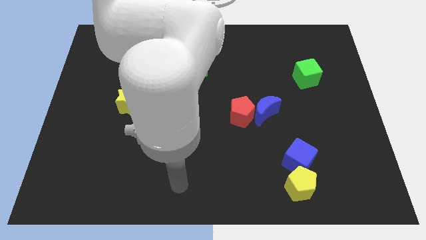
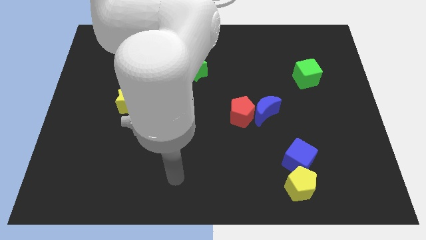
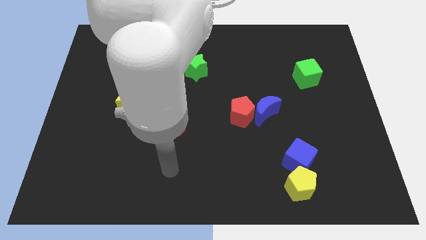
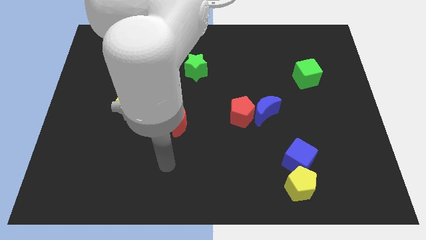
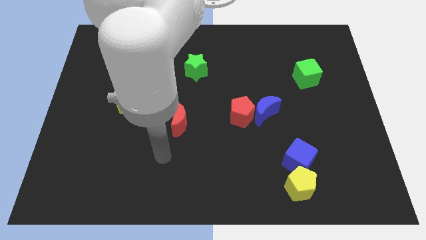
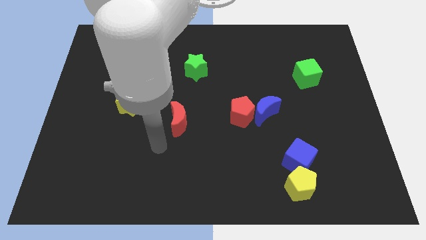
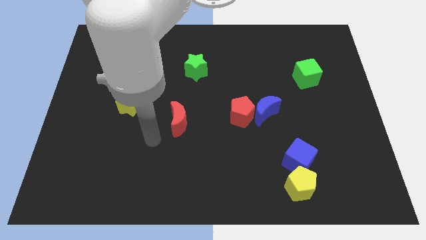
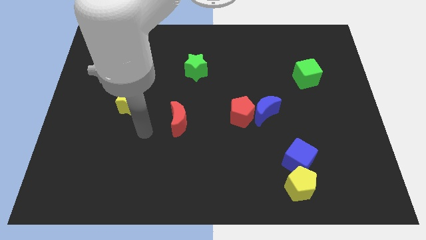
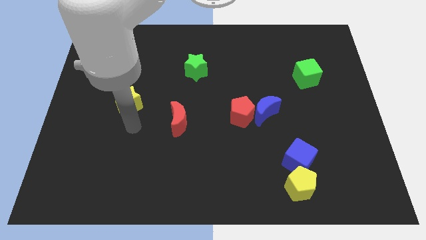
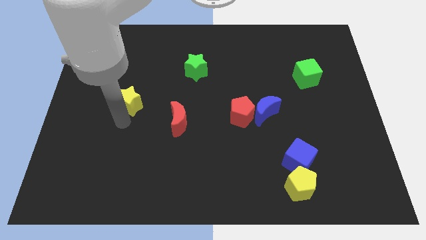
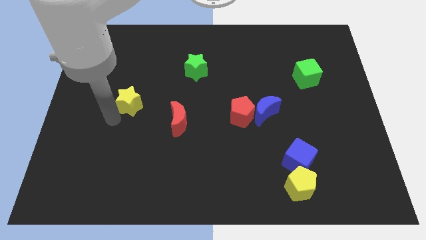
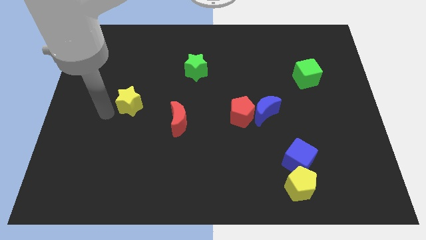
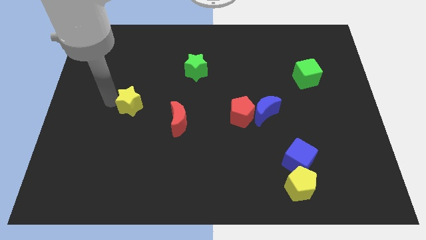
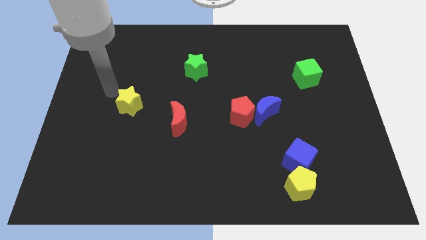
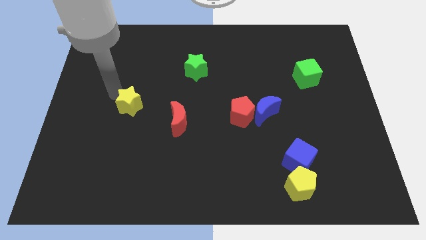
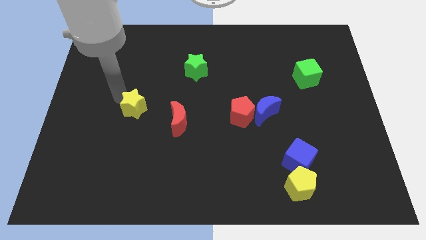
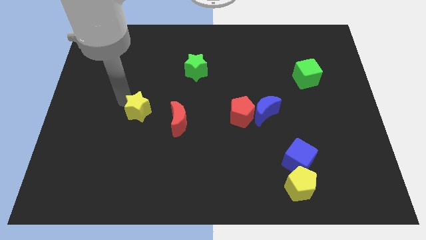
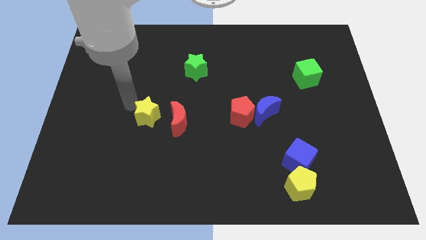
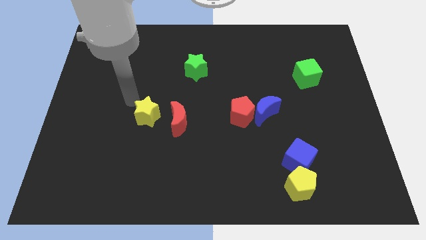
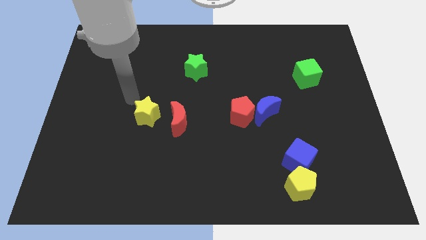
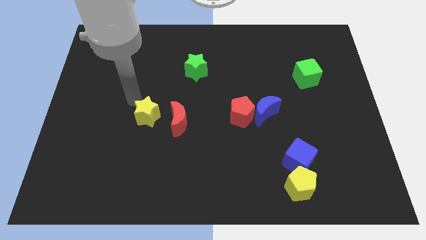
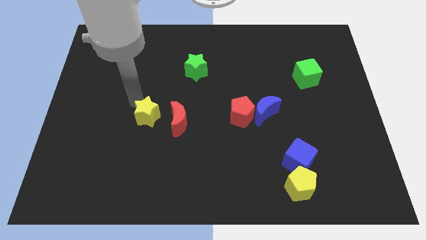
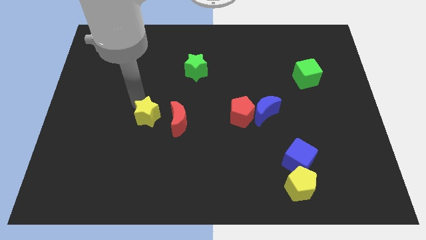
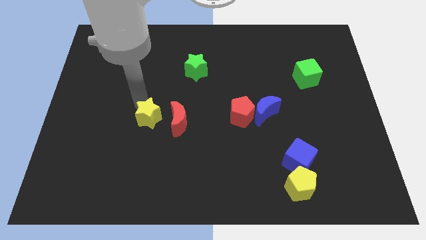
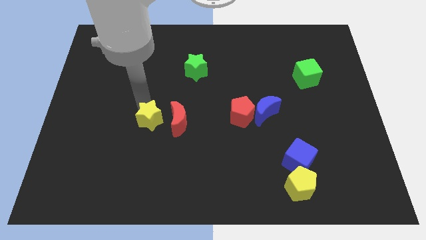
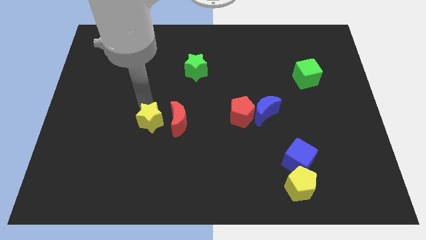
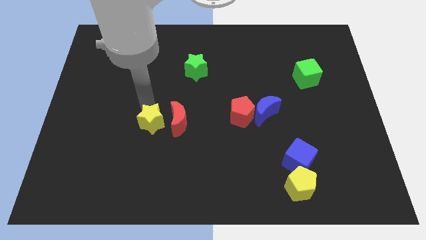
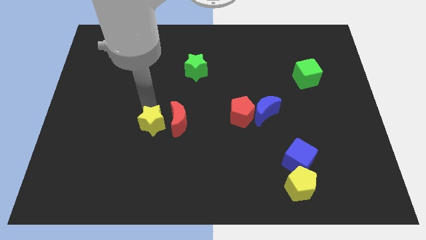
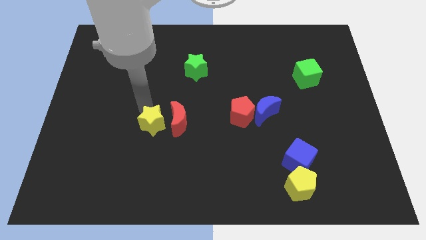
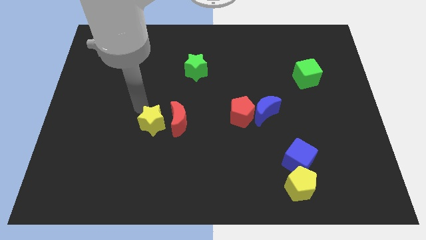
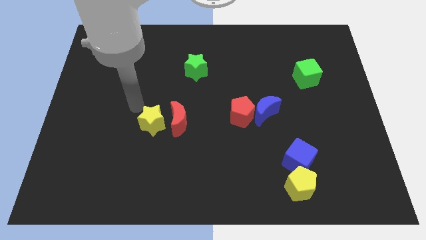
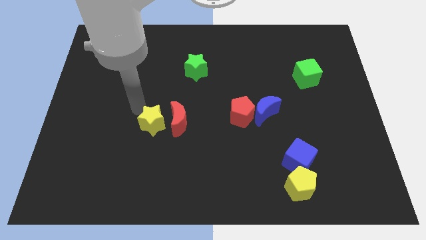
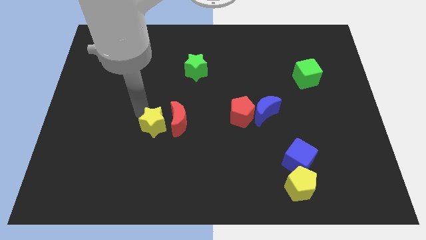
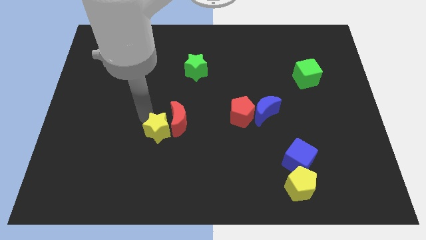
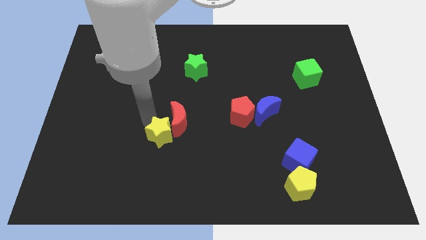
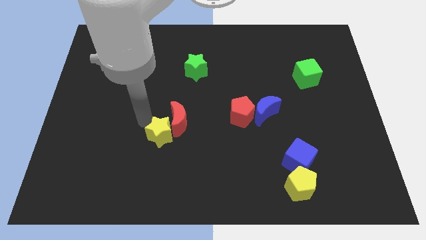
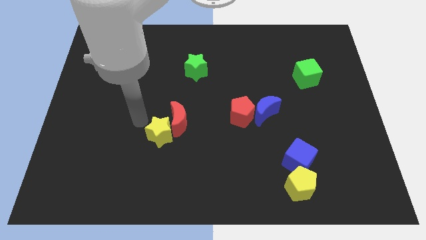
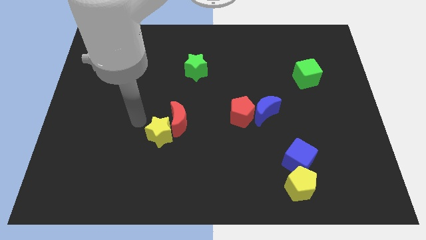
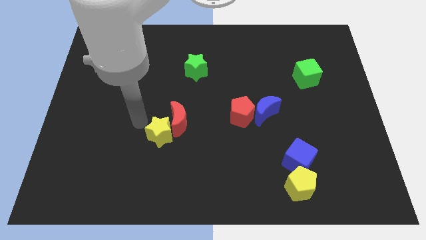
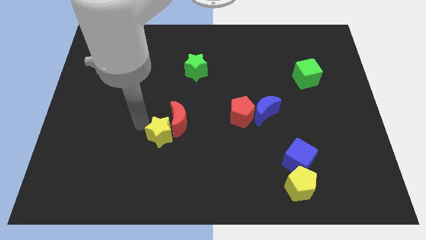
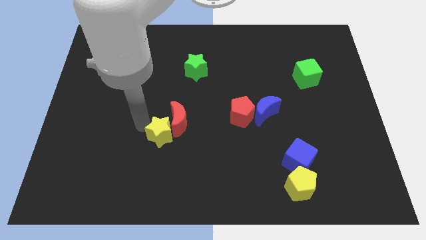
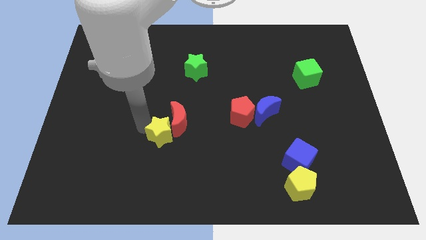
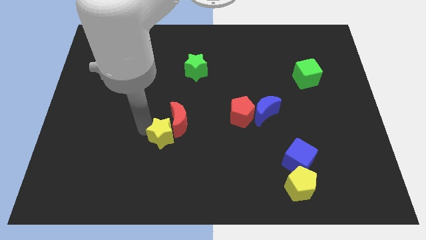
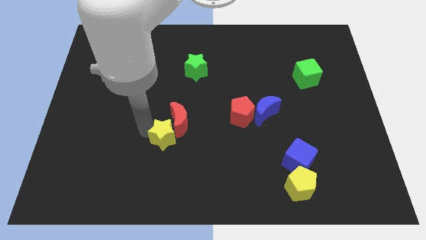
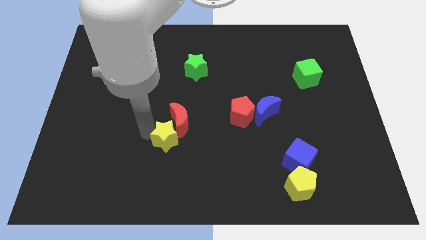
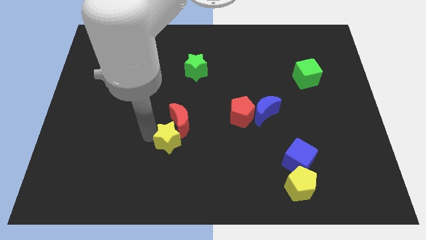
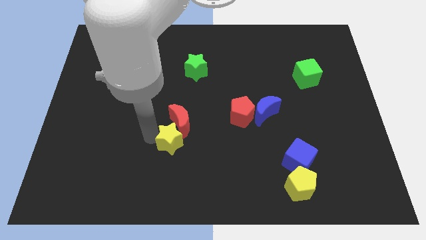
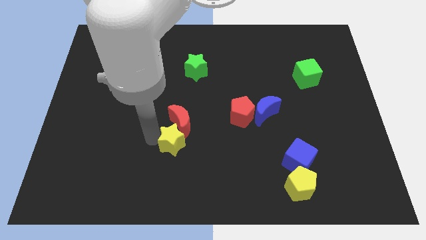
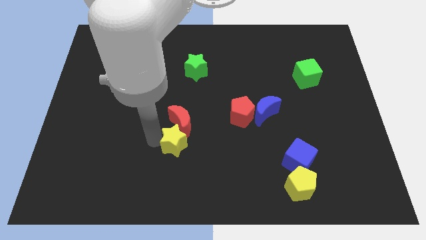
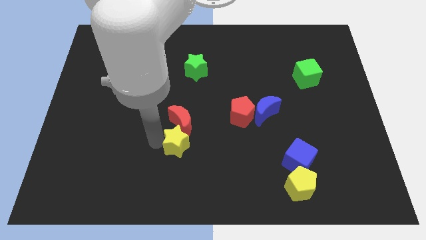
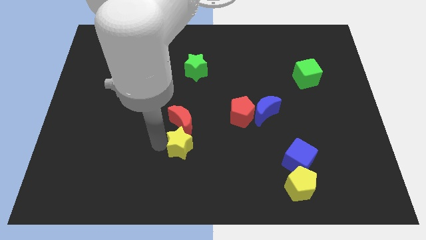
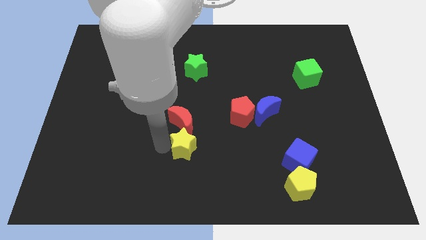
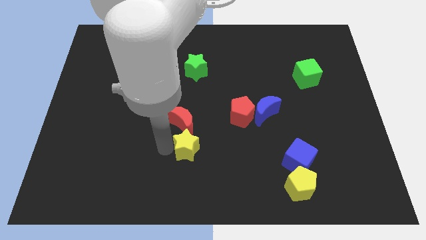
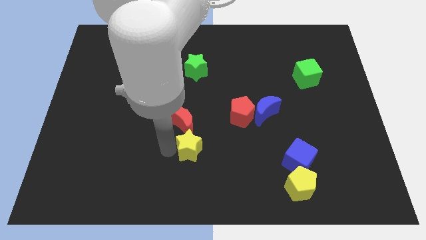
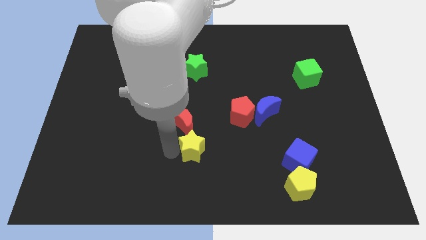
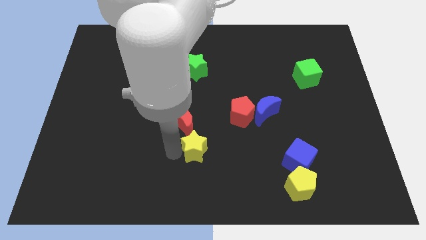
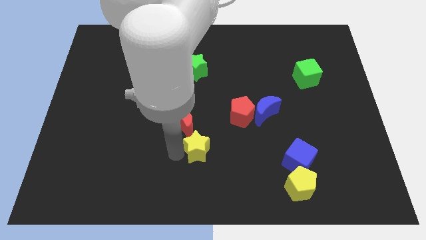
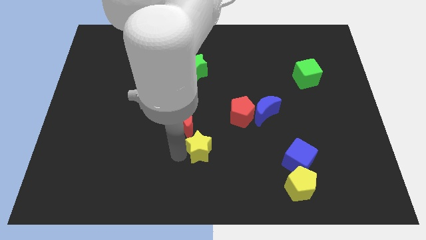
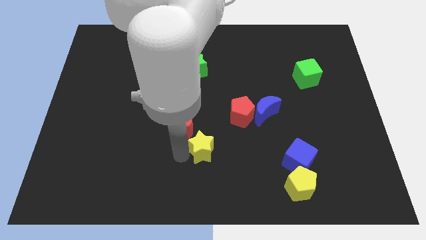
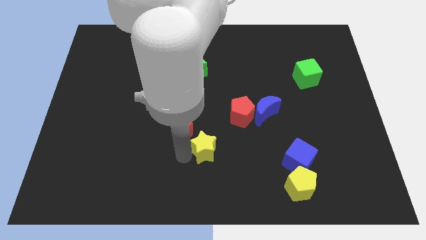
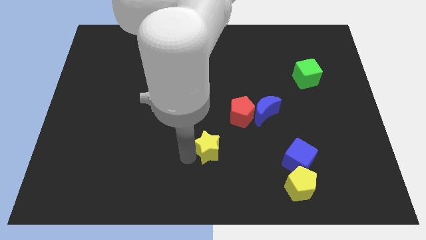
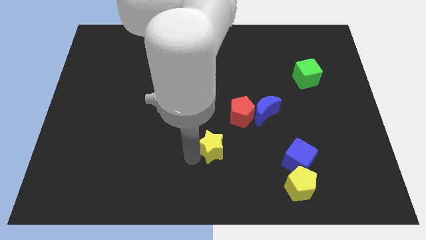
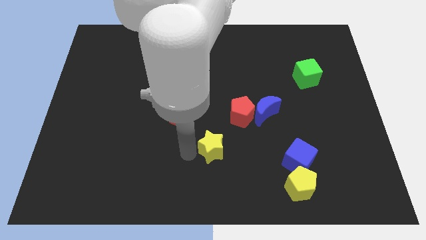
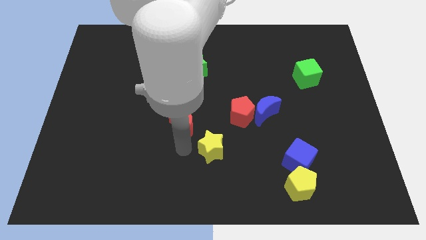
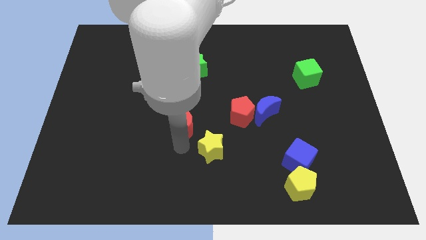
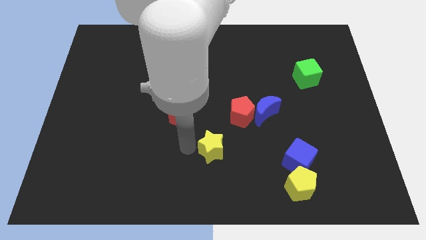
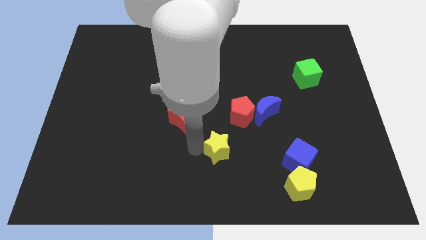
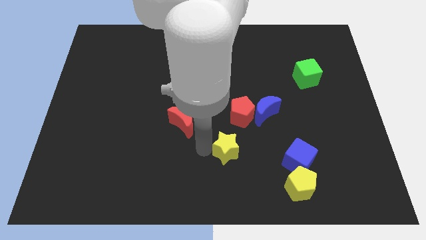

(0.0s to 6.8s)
push the yellow star below the red pentagon

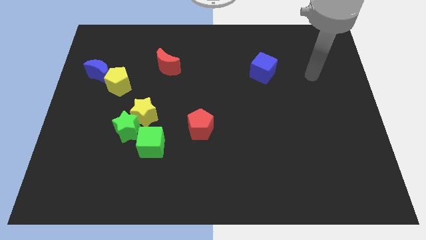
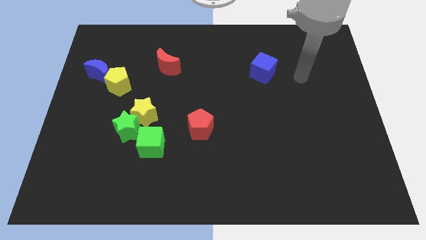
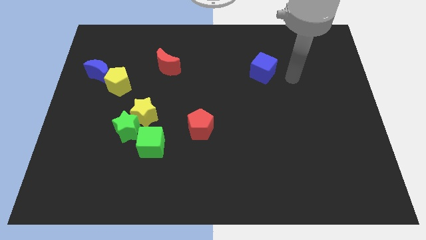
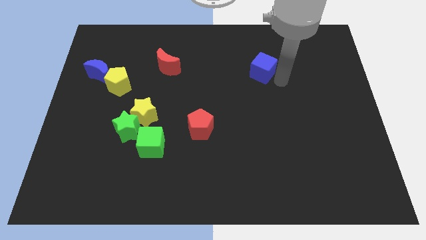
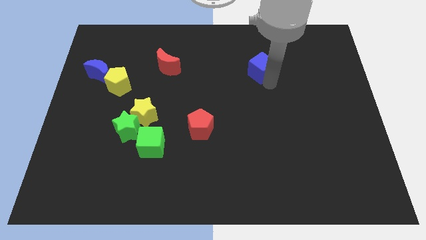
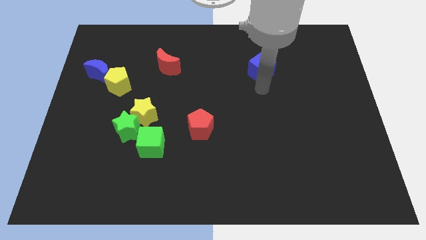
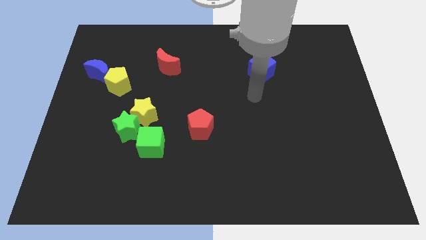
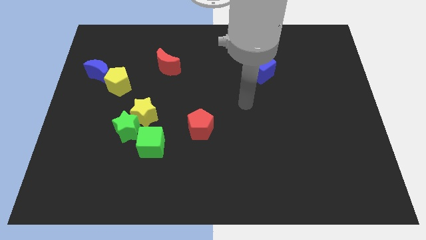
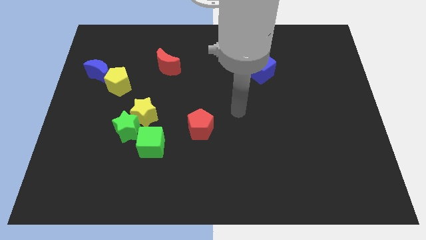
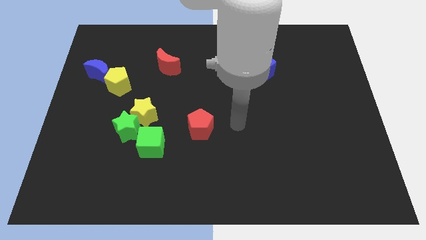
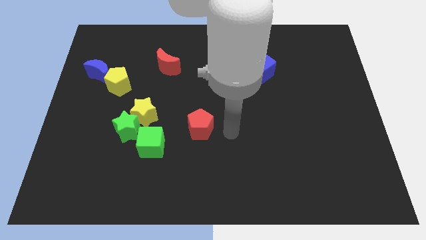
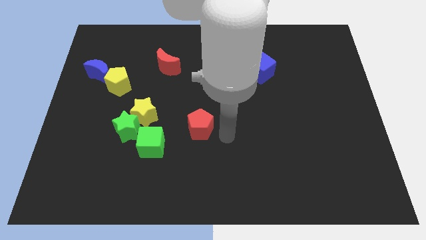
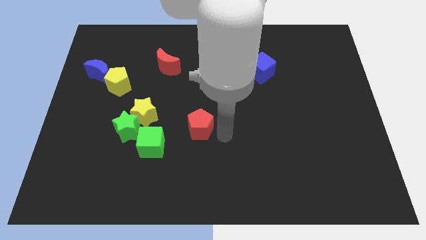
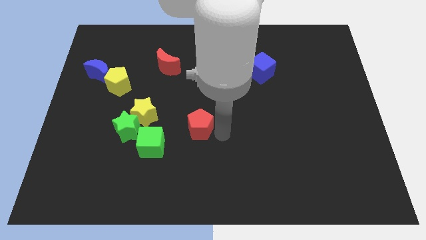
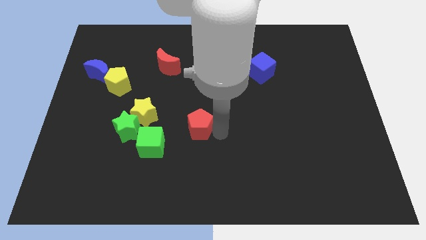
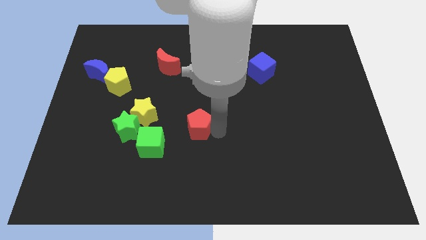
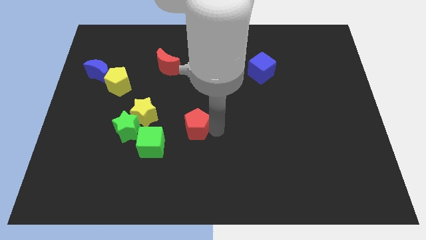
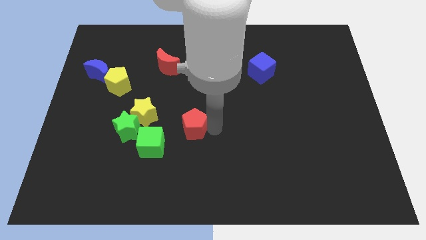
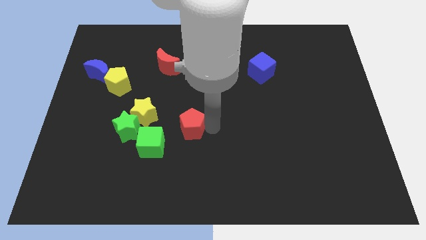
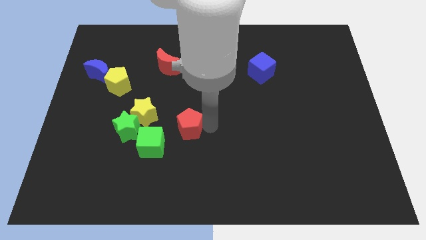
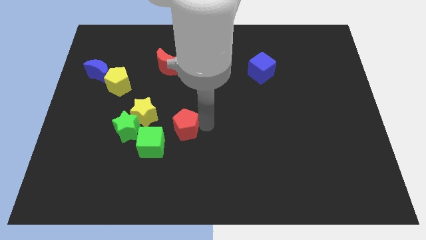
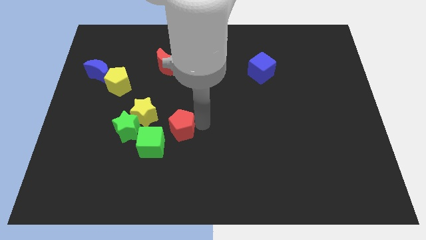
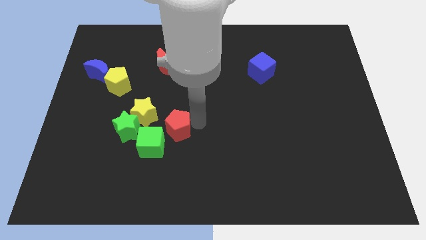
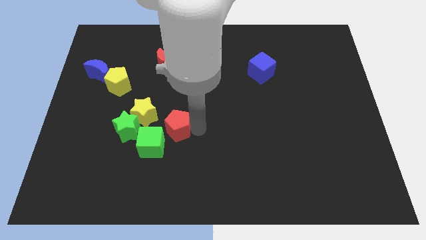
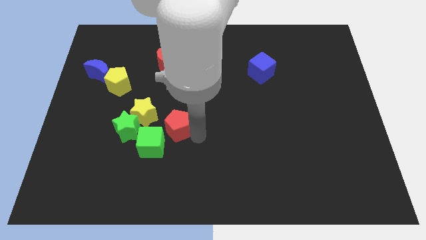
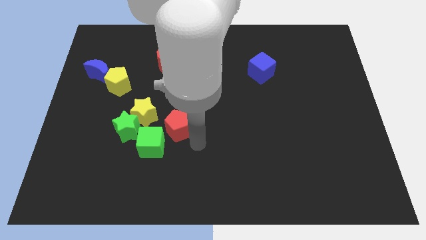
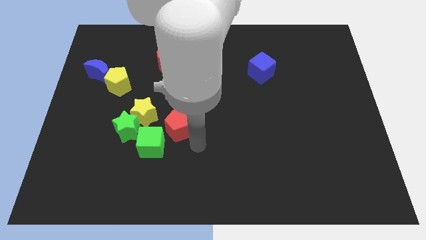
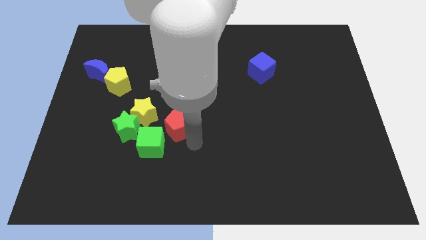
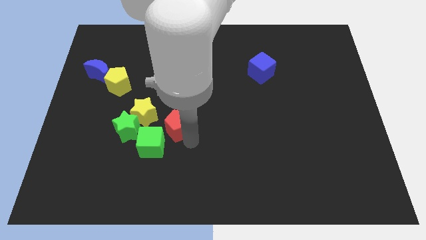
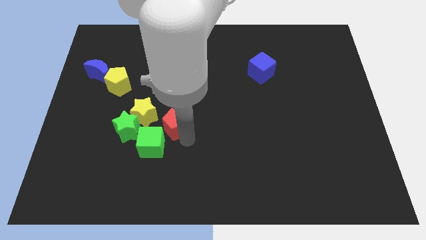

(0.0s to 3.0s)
move the red pentagon above the green cube
